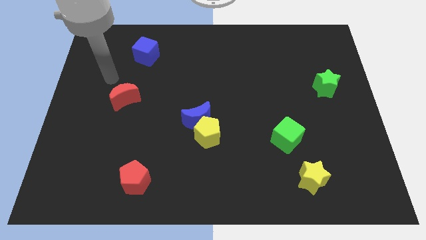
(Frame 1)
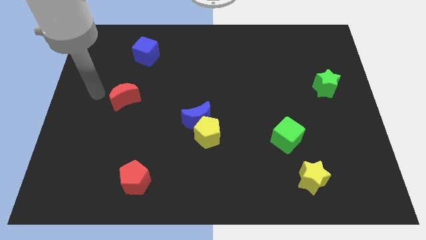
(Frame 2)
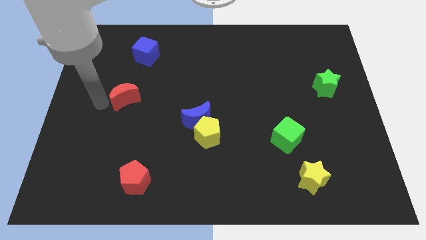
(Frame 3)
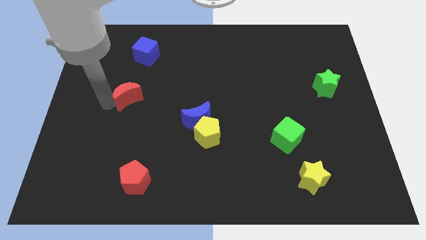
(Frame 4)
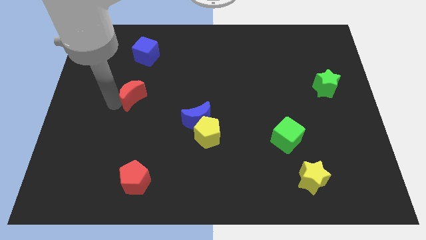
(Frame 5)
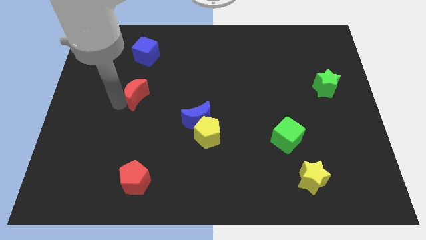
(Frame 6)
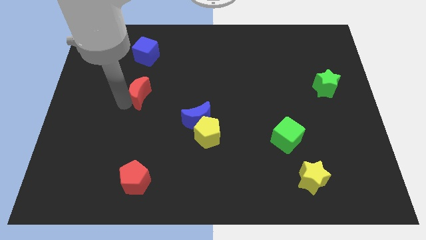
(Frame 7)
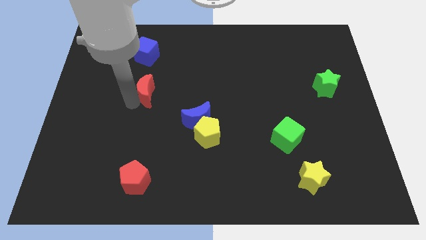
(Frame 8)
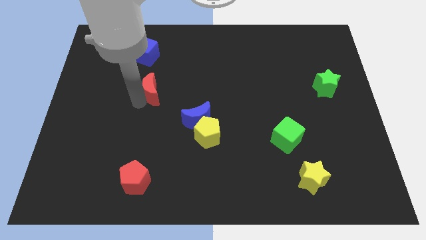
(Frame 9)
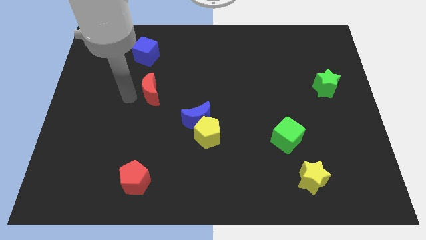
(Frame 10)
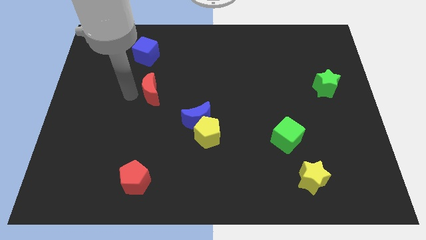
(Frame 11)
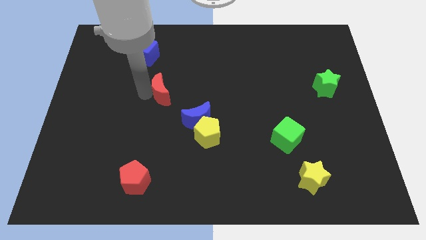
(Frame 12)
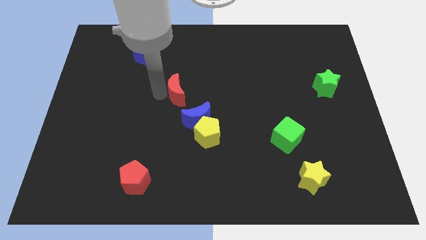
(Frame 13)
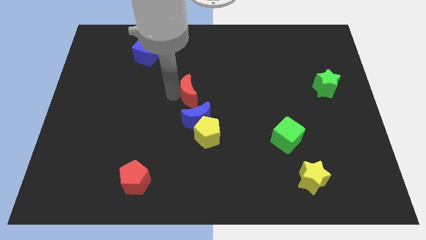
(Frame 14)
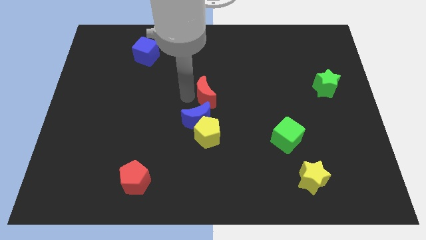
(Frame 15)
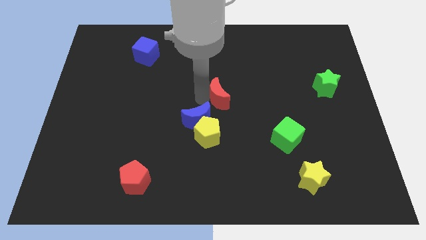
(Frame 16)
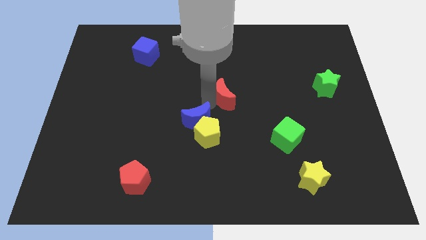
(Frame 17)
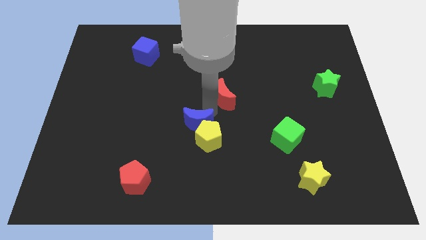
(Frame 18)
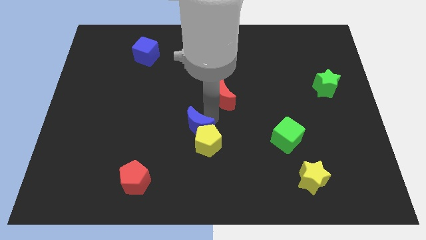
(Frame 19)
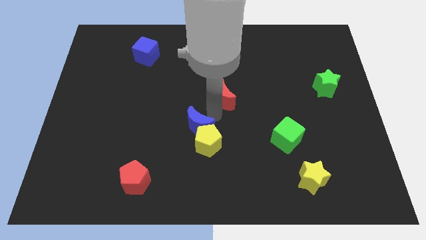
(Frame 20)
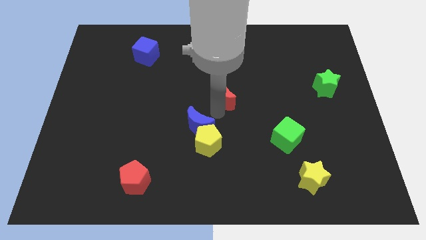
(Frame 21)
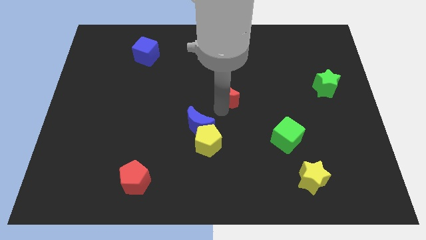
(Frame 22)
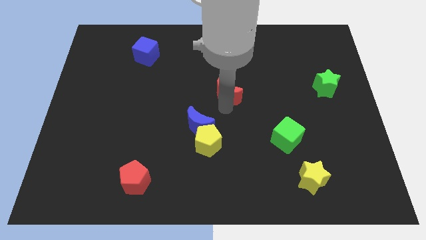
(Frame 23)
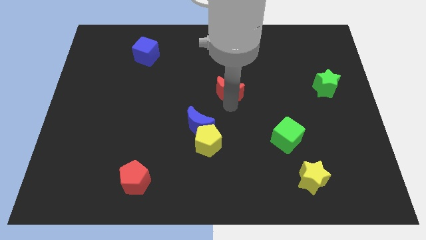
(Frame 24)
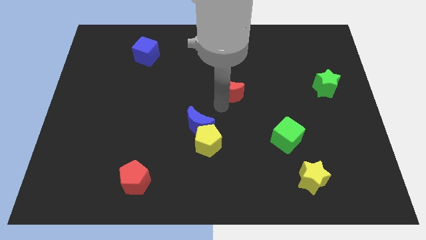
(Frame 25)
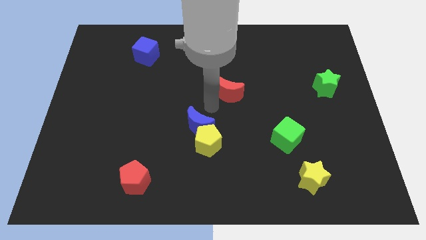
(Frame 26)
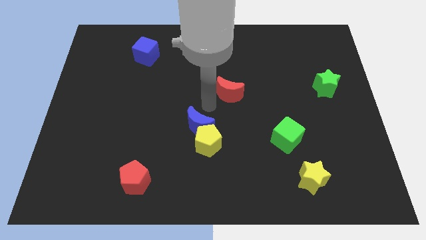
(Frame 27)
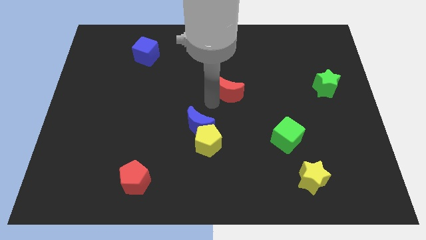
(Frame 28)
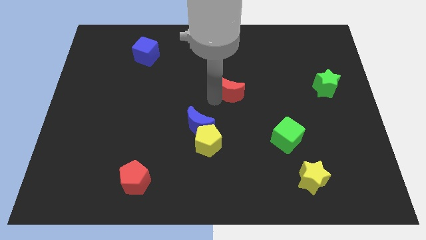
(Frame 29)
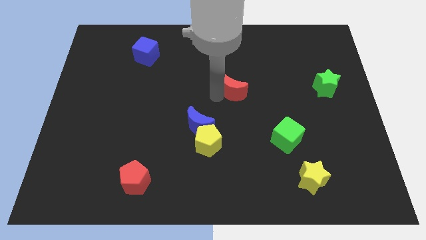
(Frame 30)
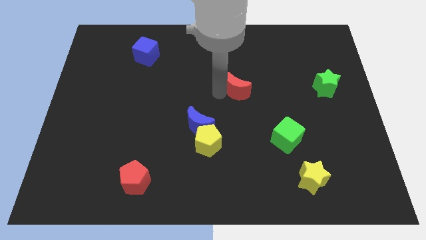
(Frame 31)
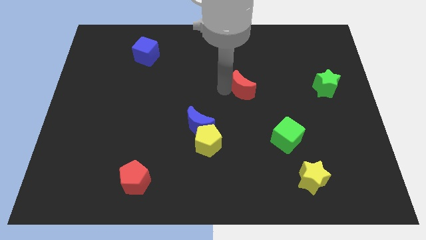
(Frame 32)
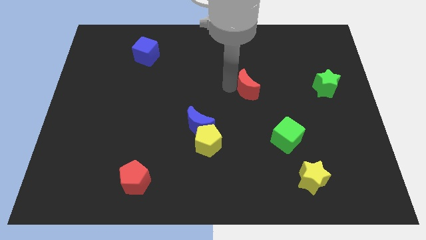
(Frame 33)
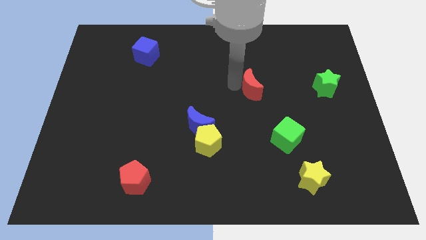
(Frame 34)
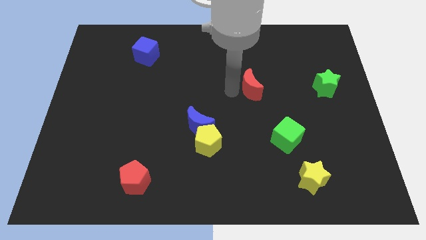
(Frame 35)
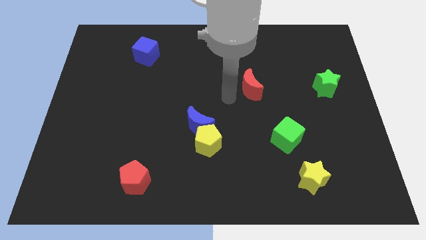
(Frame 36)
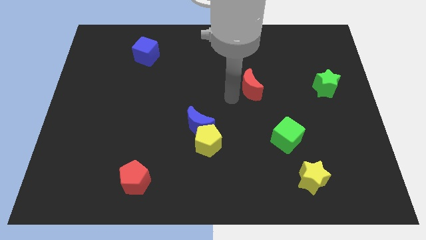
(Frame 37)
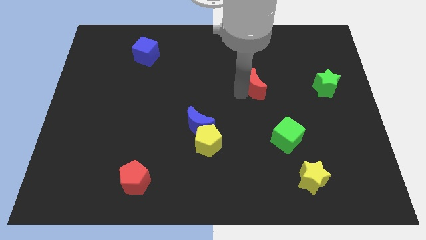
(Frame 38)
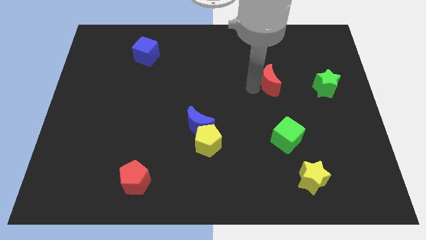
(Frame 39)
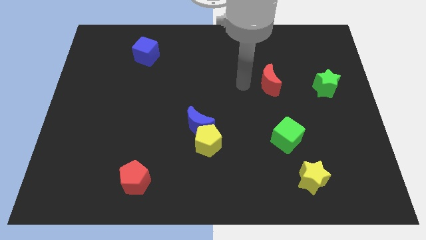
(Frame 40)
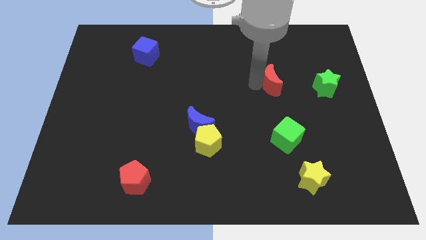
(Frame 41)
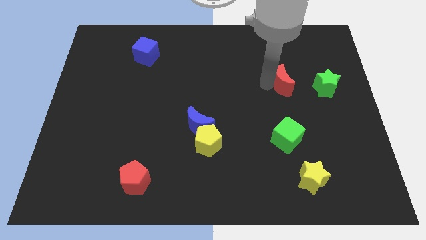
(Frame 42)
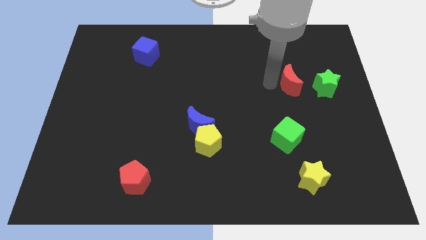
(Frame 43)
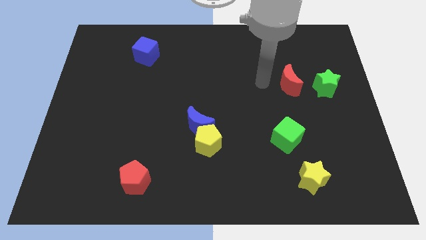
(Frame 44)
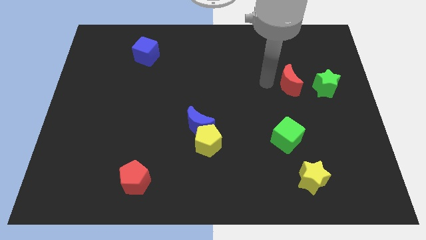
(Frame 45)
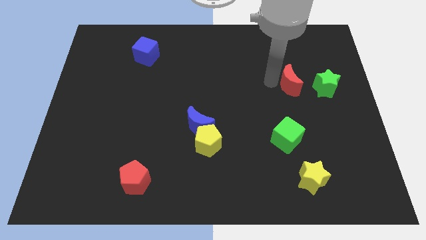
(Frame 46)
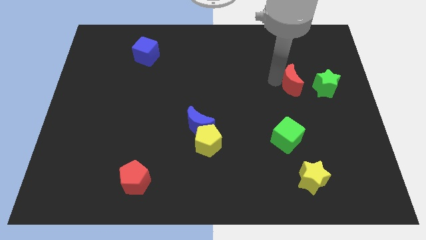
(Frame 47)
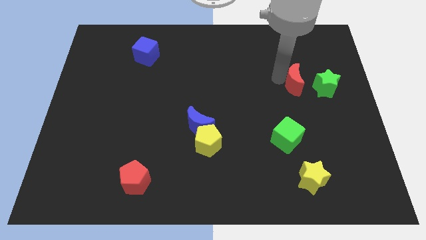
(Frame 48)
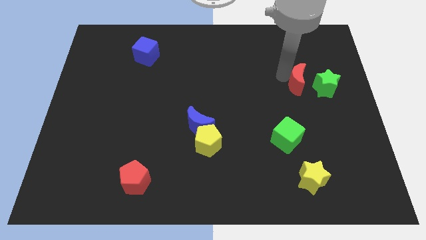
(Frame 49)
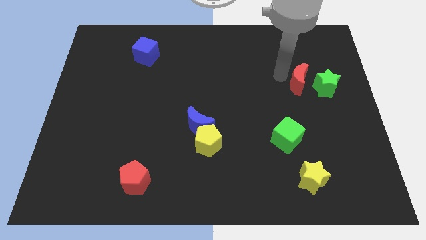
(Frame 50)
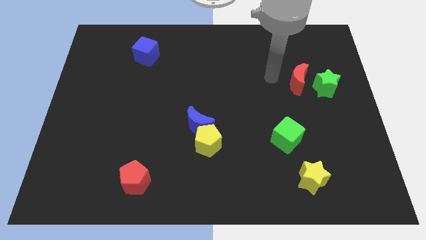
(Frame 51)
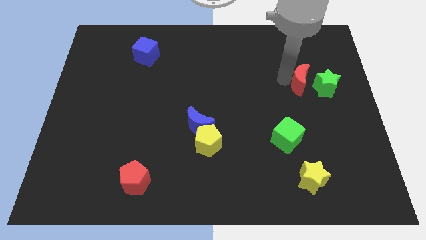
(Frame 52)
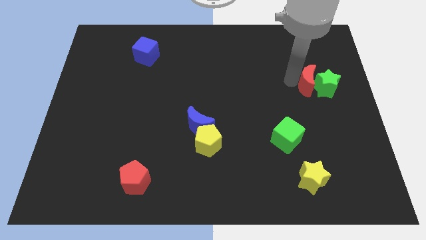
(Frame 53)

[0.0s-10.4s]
push the red moon towards the green star

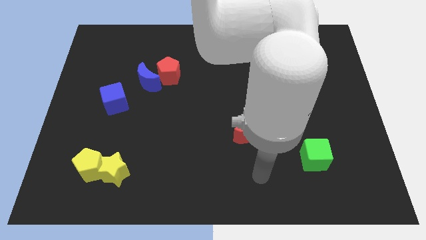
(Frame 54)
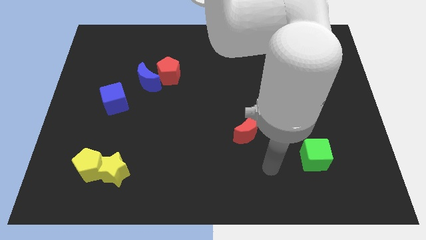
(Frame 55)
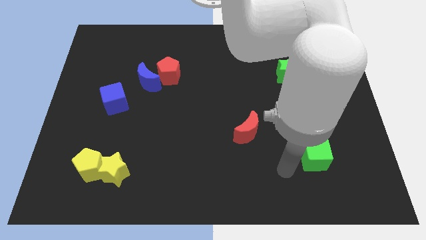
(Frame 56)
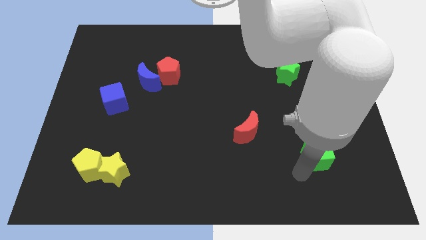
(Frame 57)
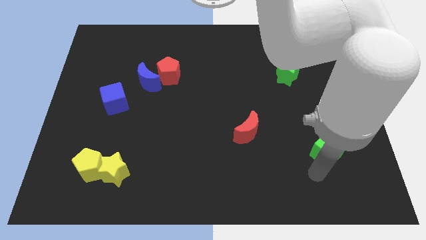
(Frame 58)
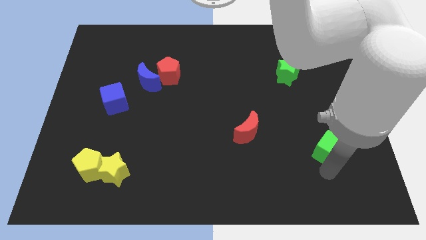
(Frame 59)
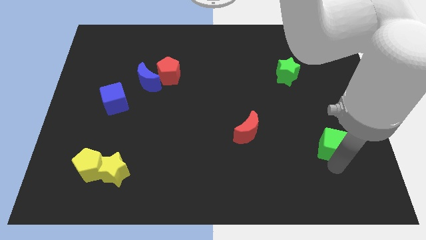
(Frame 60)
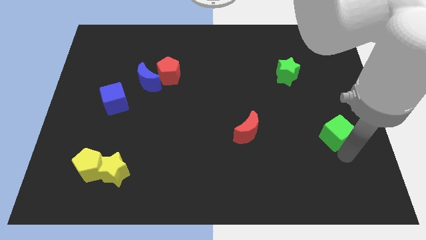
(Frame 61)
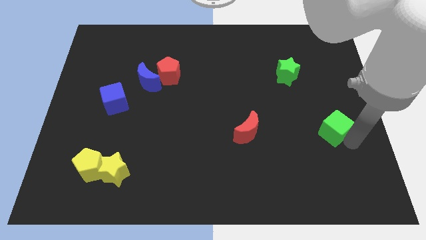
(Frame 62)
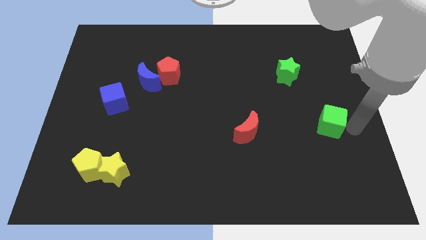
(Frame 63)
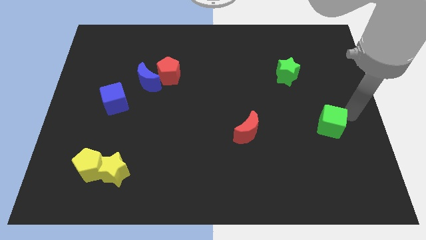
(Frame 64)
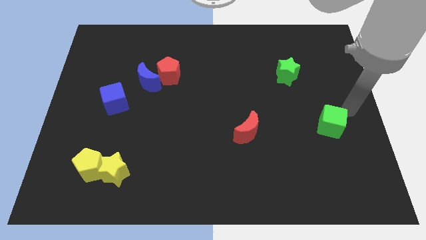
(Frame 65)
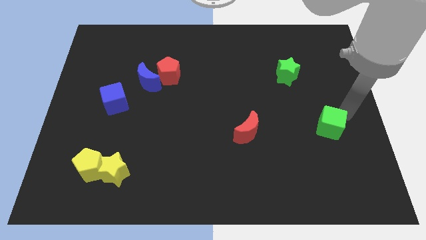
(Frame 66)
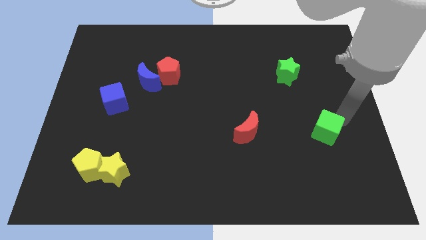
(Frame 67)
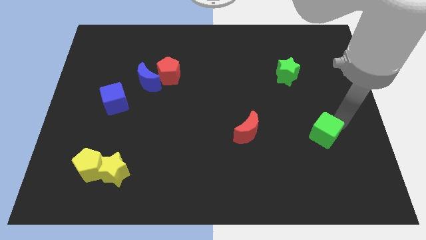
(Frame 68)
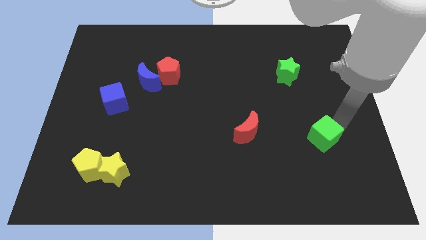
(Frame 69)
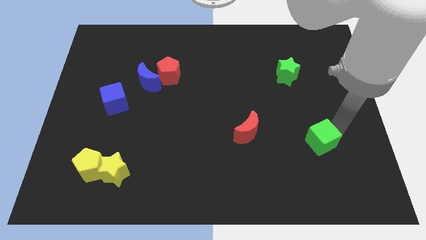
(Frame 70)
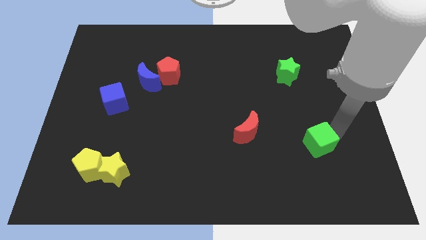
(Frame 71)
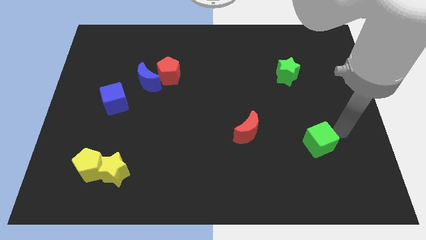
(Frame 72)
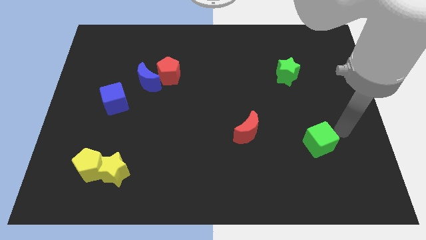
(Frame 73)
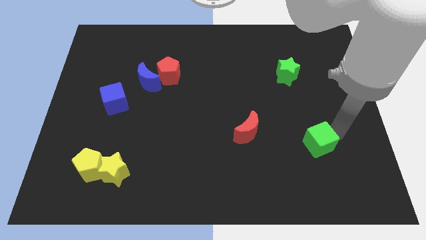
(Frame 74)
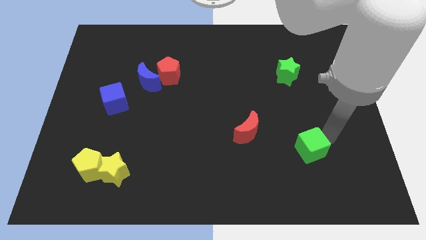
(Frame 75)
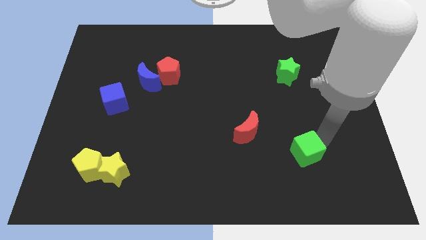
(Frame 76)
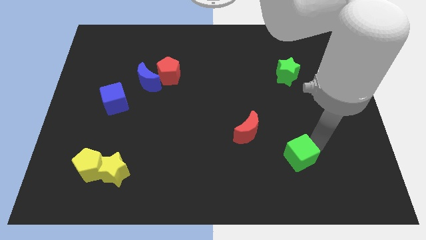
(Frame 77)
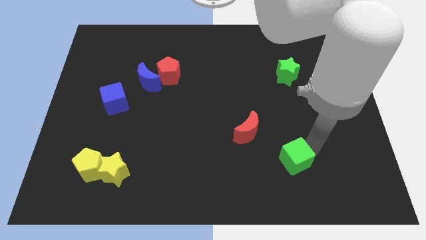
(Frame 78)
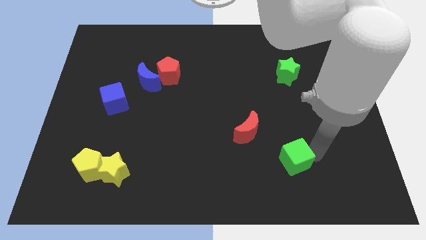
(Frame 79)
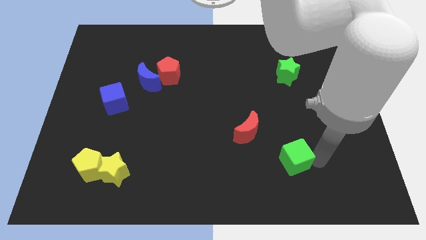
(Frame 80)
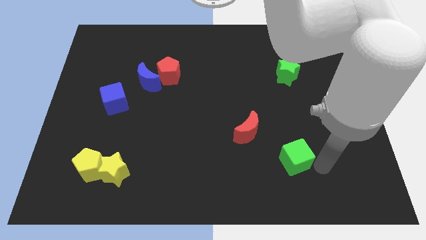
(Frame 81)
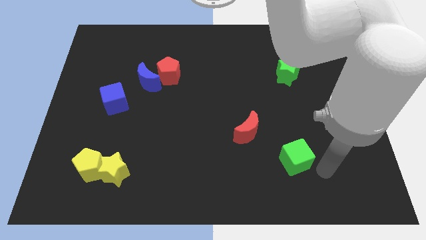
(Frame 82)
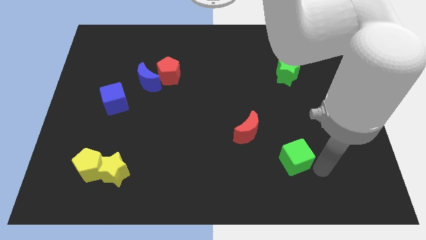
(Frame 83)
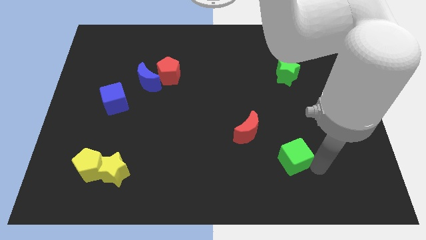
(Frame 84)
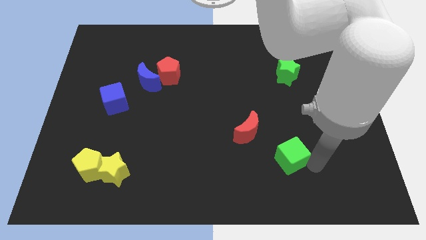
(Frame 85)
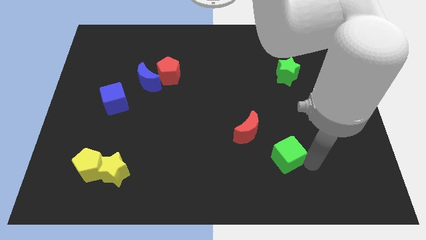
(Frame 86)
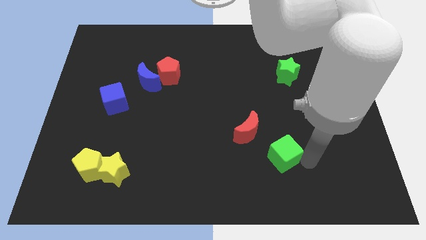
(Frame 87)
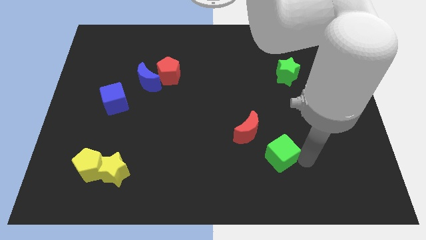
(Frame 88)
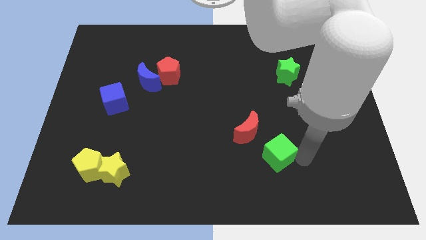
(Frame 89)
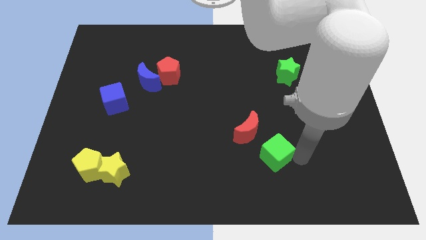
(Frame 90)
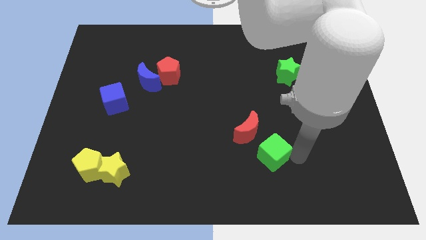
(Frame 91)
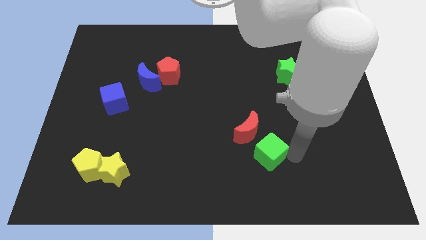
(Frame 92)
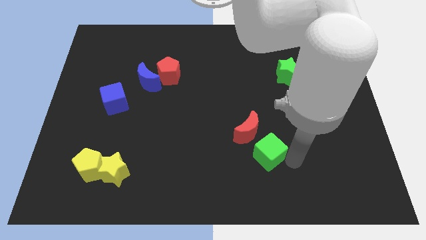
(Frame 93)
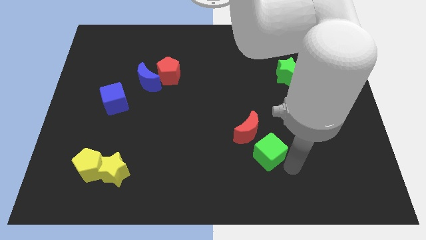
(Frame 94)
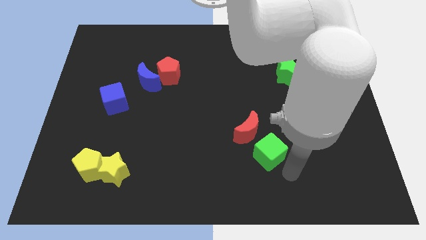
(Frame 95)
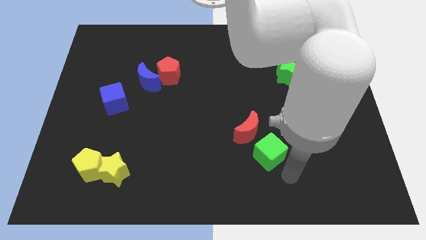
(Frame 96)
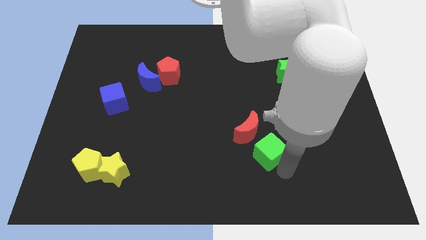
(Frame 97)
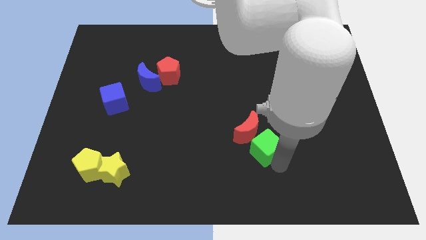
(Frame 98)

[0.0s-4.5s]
push the green cube close to the red moon
